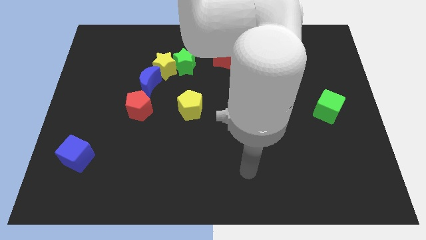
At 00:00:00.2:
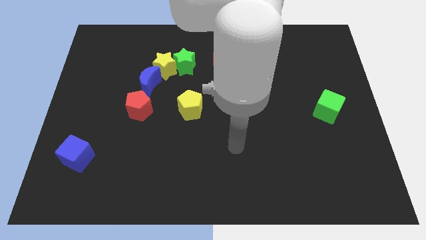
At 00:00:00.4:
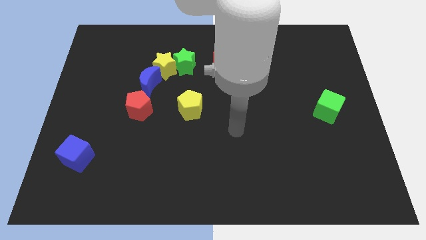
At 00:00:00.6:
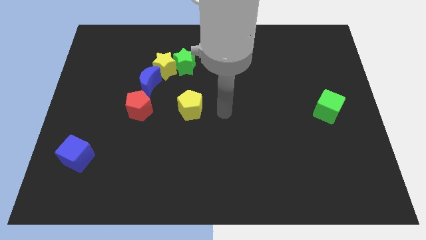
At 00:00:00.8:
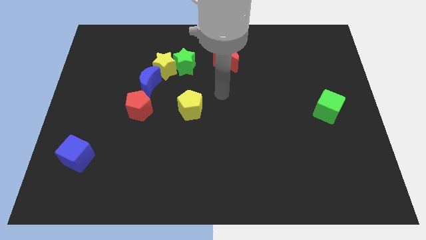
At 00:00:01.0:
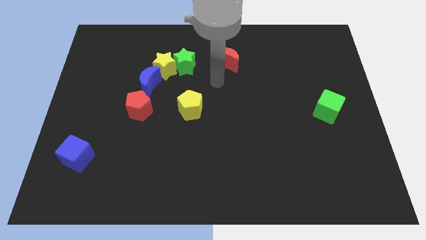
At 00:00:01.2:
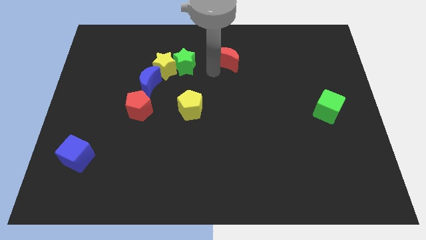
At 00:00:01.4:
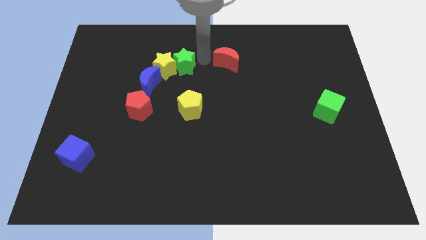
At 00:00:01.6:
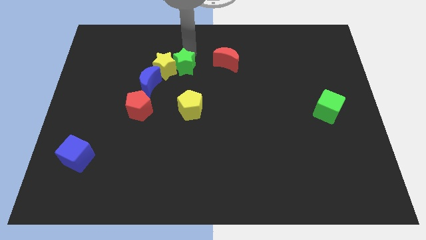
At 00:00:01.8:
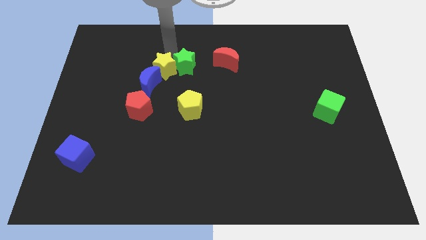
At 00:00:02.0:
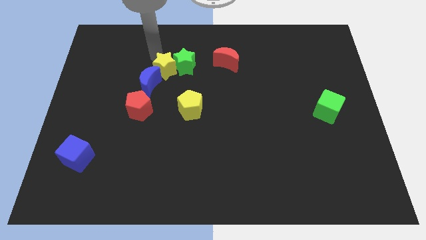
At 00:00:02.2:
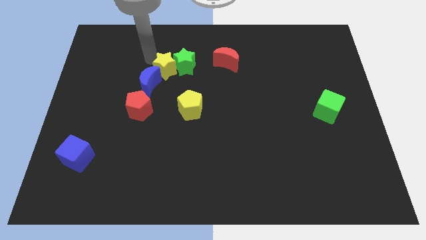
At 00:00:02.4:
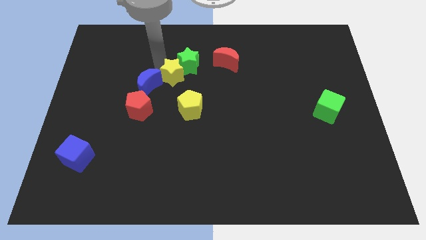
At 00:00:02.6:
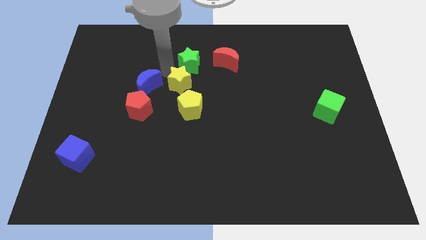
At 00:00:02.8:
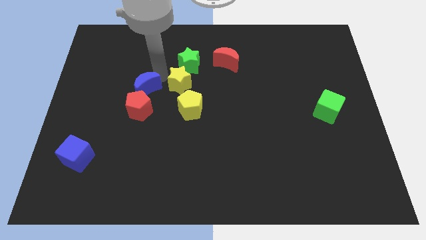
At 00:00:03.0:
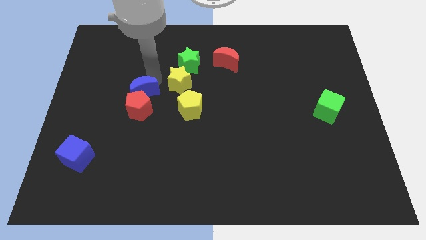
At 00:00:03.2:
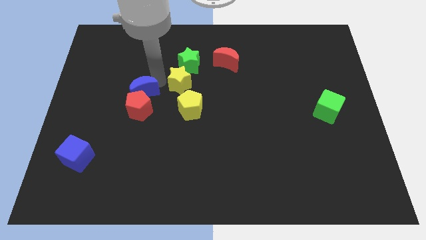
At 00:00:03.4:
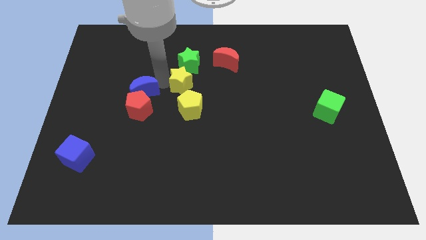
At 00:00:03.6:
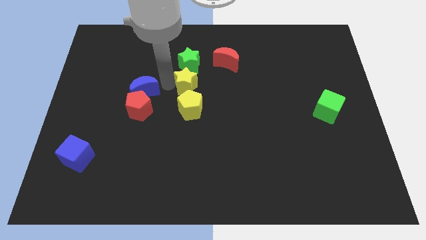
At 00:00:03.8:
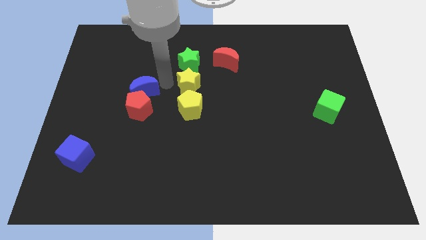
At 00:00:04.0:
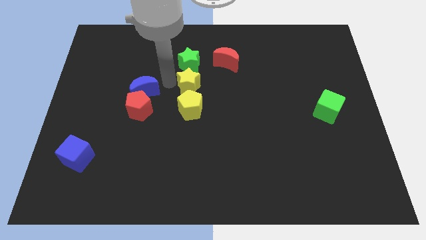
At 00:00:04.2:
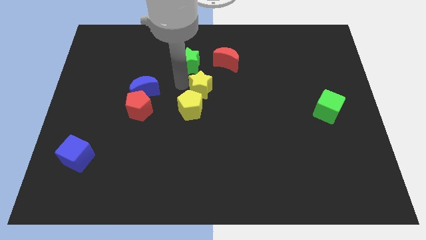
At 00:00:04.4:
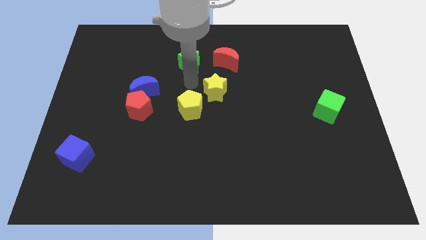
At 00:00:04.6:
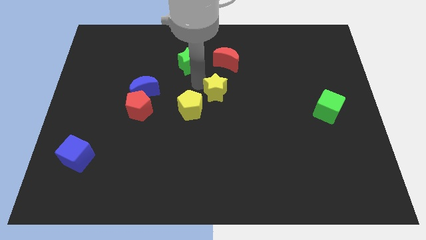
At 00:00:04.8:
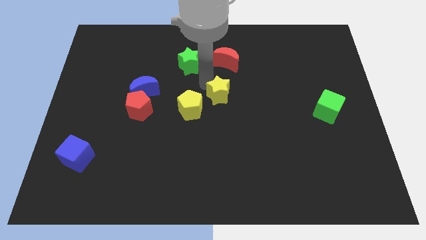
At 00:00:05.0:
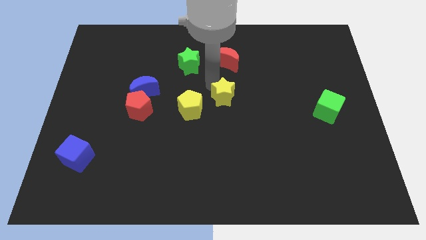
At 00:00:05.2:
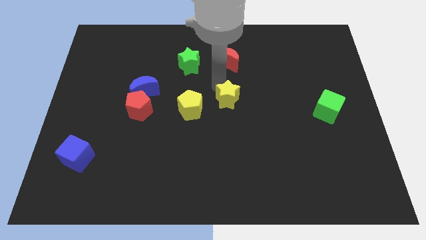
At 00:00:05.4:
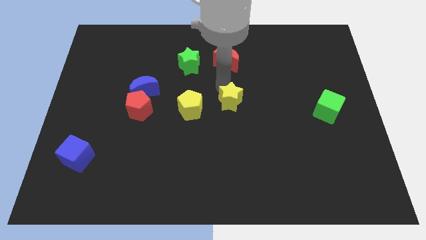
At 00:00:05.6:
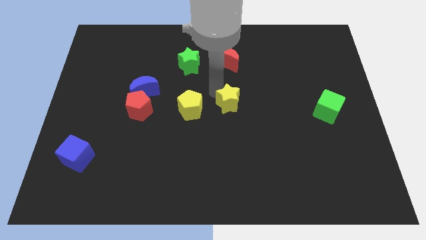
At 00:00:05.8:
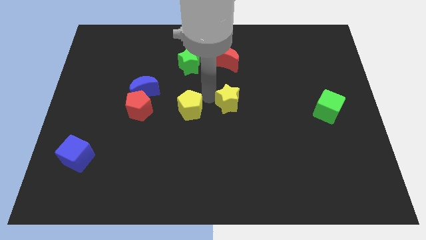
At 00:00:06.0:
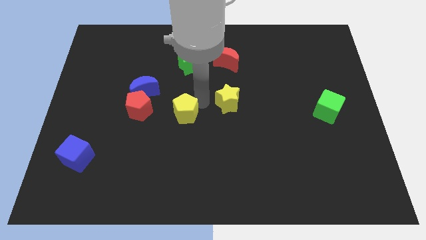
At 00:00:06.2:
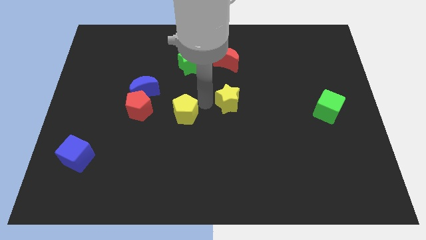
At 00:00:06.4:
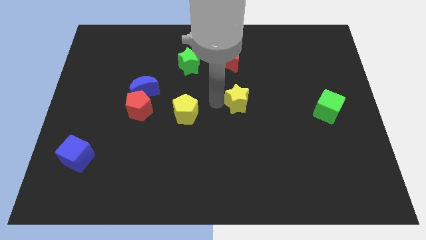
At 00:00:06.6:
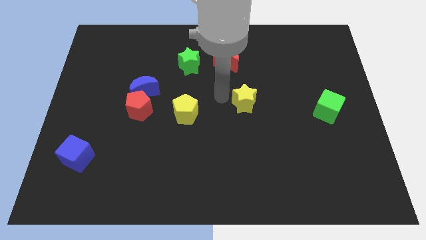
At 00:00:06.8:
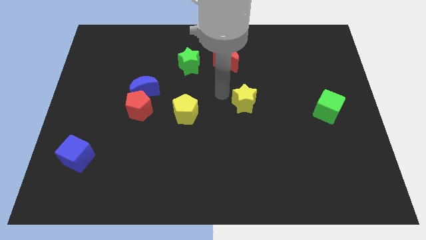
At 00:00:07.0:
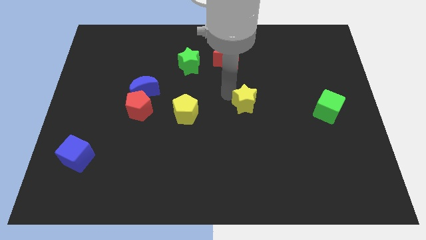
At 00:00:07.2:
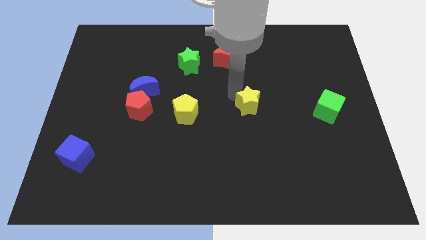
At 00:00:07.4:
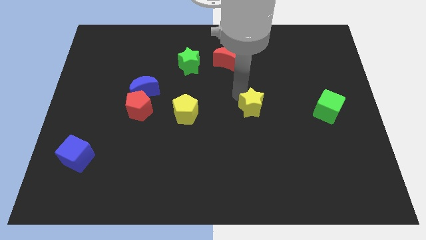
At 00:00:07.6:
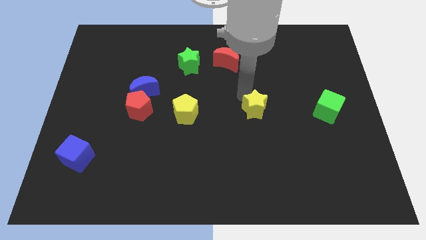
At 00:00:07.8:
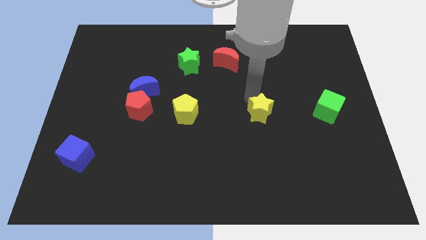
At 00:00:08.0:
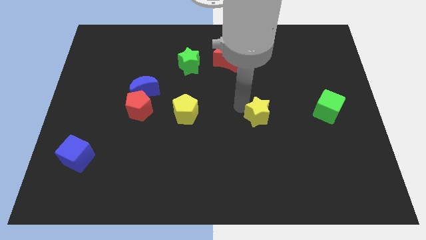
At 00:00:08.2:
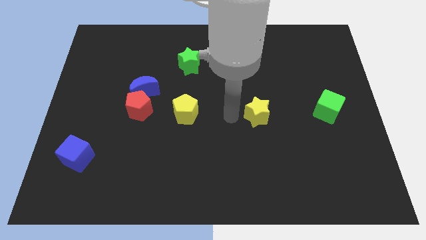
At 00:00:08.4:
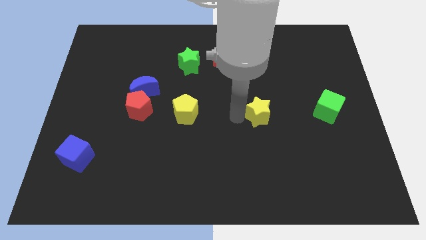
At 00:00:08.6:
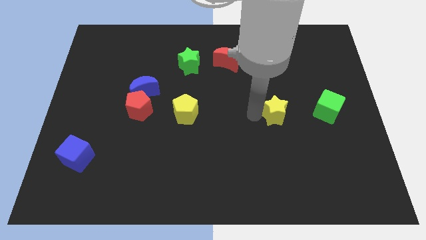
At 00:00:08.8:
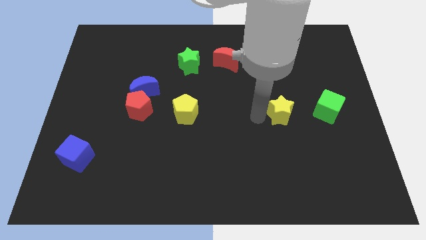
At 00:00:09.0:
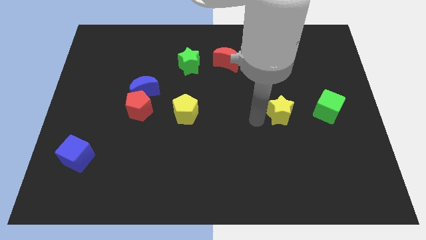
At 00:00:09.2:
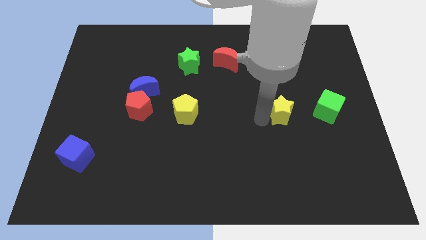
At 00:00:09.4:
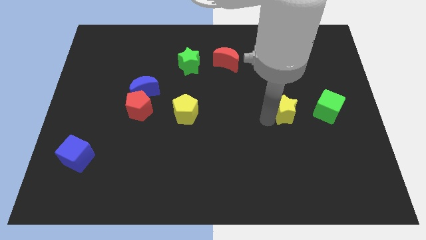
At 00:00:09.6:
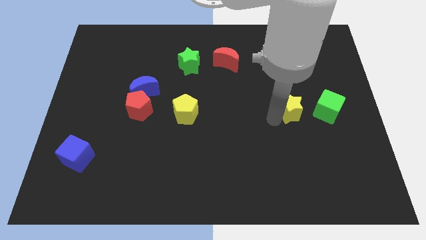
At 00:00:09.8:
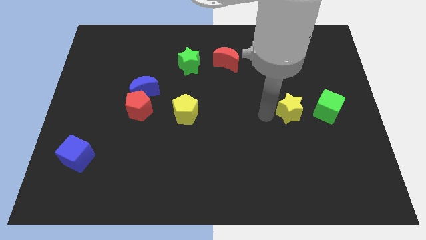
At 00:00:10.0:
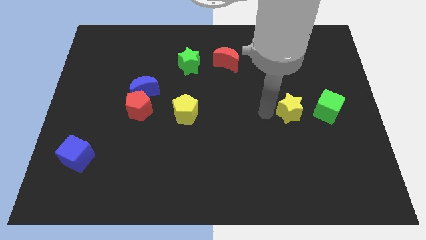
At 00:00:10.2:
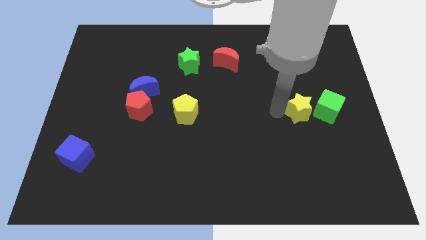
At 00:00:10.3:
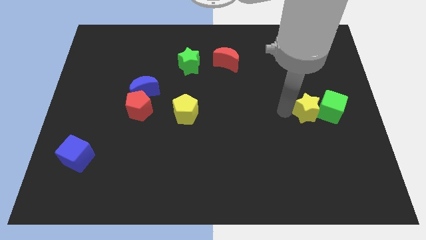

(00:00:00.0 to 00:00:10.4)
push the yellow star close to the green cube

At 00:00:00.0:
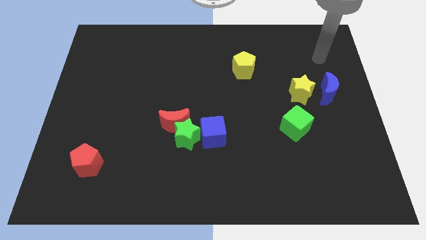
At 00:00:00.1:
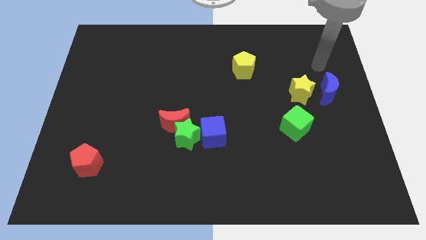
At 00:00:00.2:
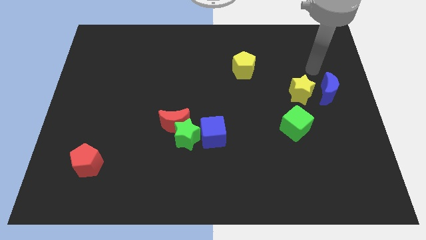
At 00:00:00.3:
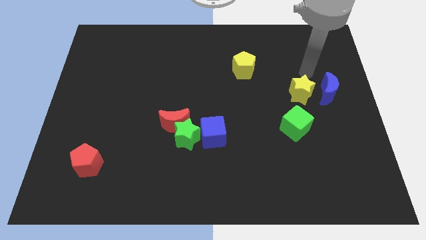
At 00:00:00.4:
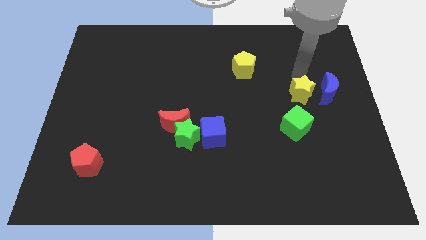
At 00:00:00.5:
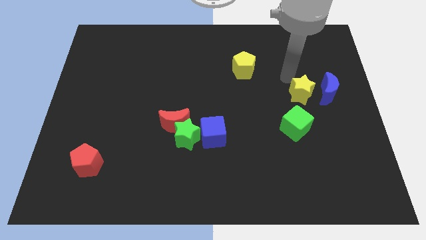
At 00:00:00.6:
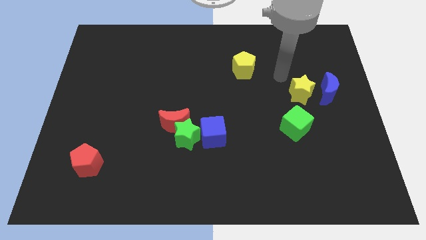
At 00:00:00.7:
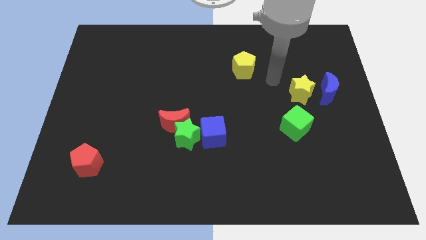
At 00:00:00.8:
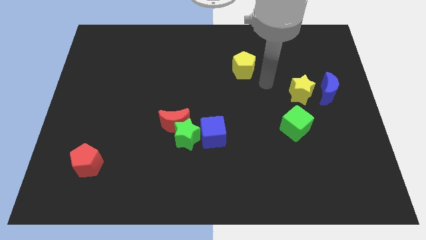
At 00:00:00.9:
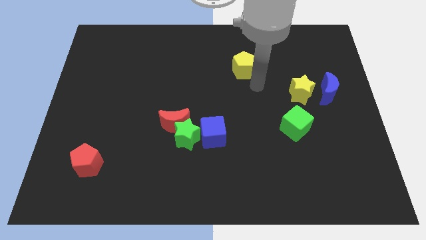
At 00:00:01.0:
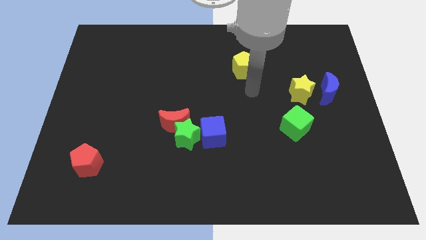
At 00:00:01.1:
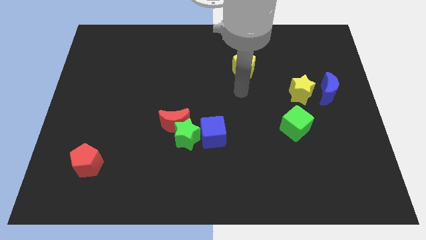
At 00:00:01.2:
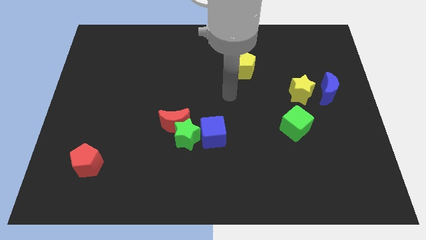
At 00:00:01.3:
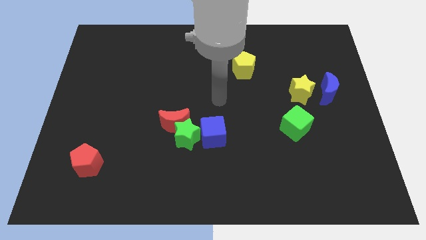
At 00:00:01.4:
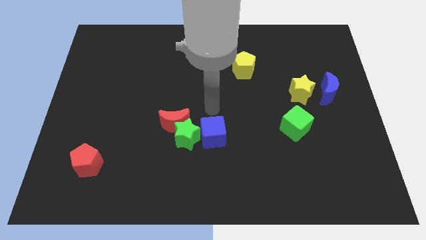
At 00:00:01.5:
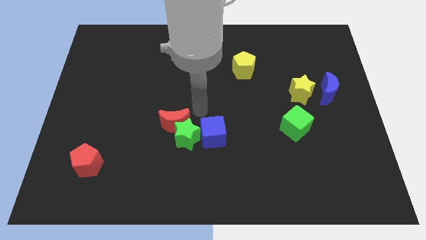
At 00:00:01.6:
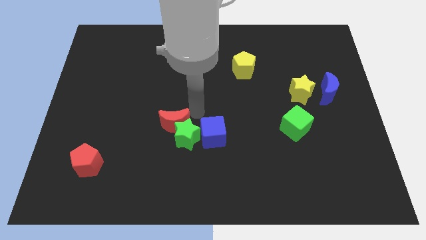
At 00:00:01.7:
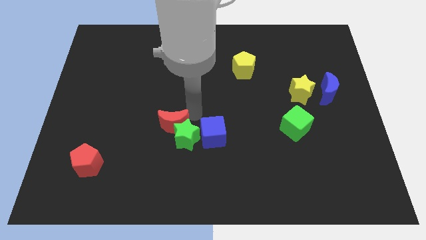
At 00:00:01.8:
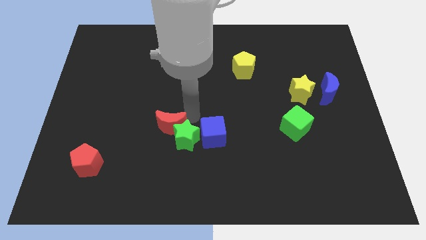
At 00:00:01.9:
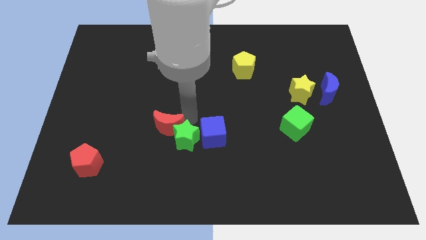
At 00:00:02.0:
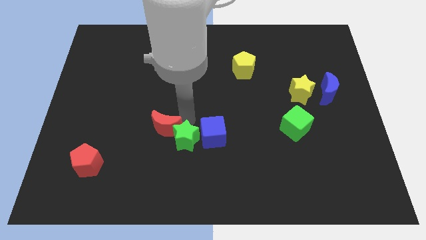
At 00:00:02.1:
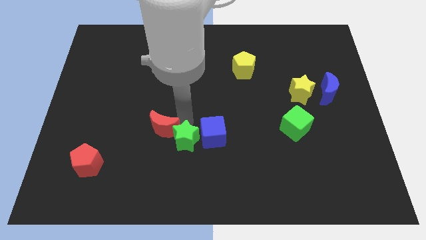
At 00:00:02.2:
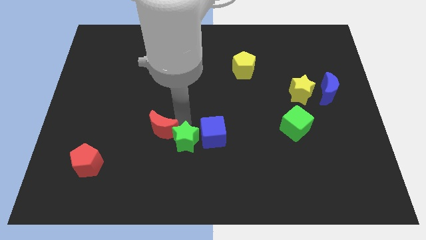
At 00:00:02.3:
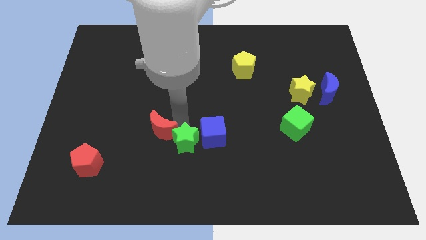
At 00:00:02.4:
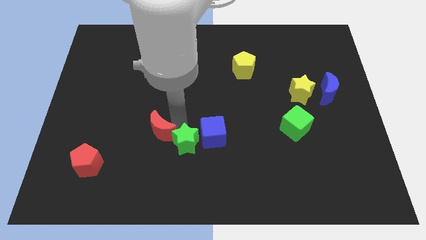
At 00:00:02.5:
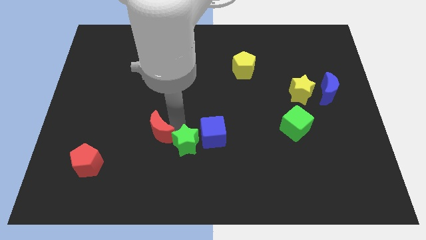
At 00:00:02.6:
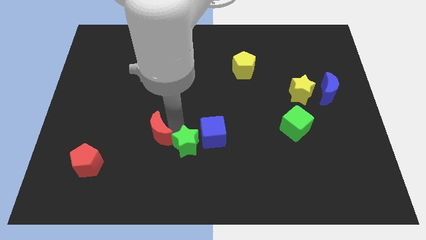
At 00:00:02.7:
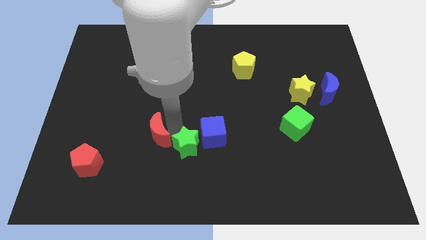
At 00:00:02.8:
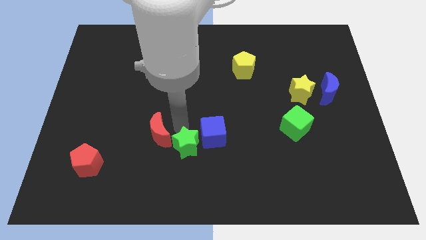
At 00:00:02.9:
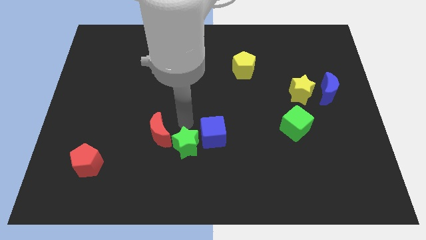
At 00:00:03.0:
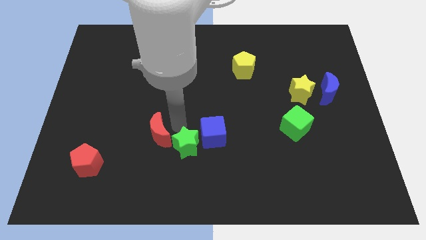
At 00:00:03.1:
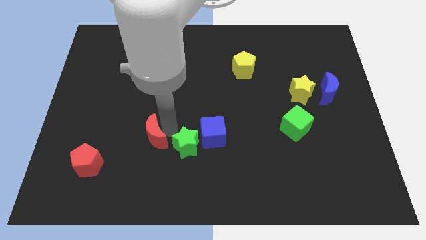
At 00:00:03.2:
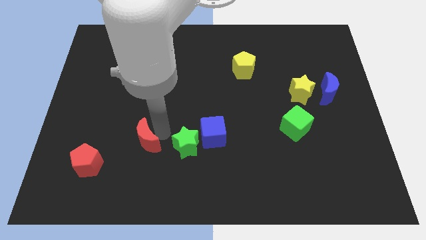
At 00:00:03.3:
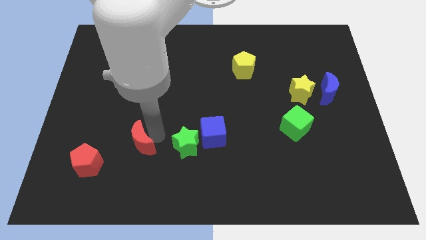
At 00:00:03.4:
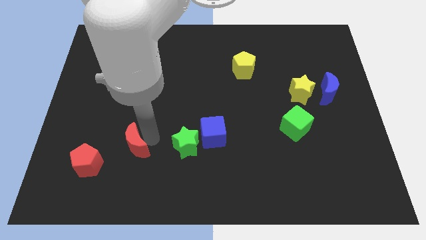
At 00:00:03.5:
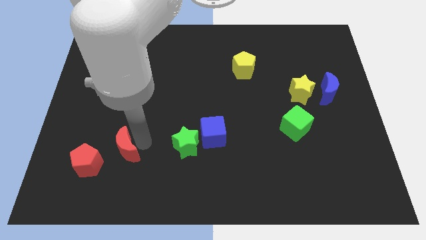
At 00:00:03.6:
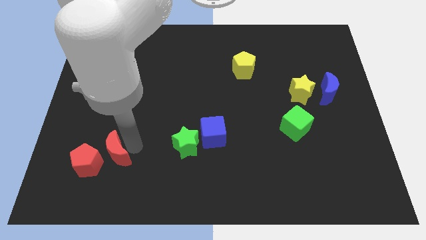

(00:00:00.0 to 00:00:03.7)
put the red moon to the red pentagon
